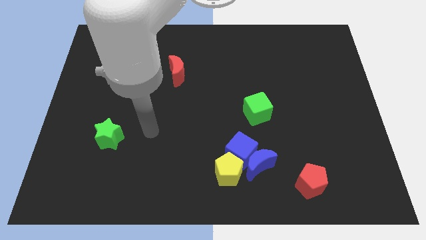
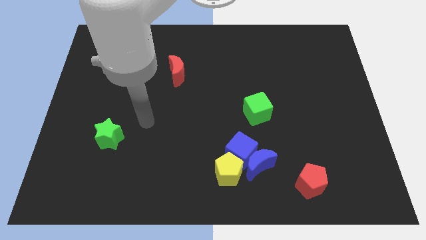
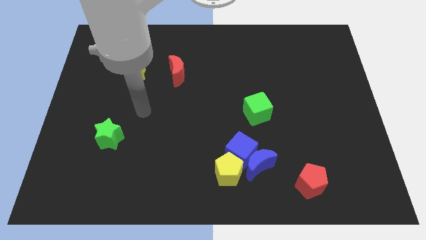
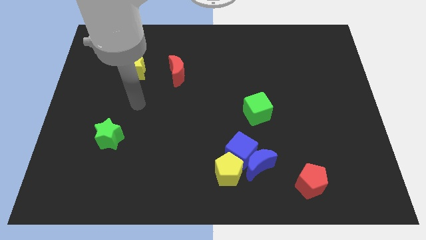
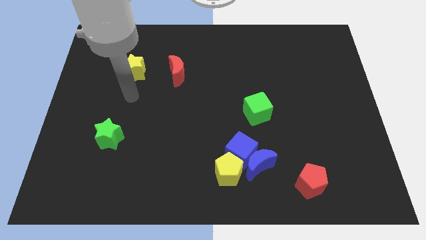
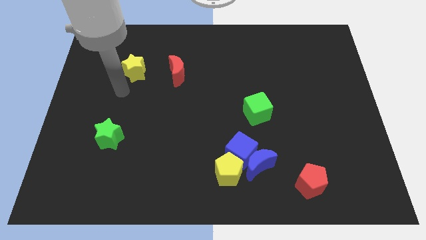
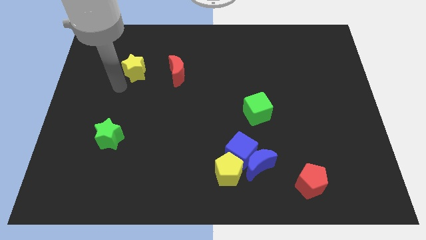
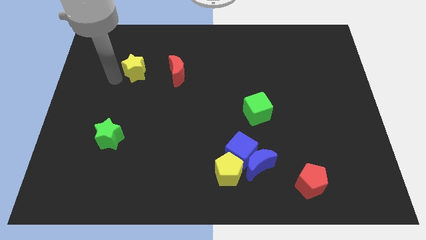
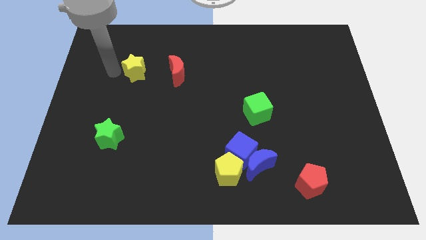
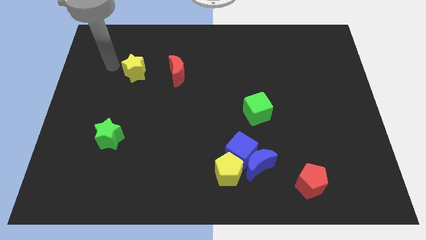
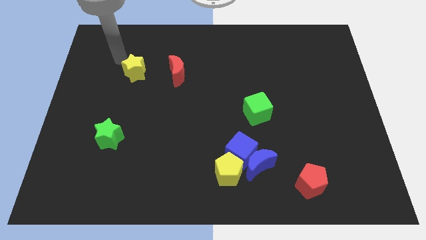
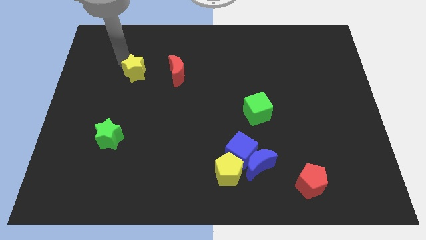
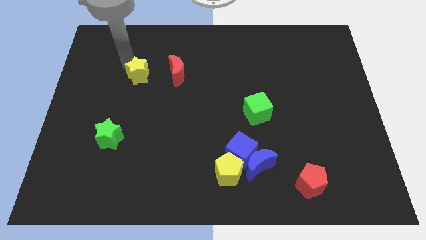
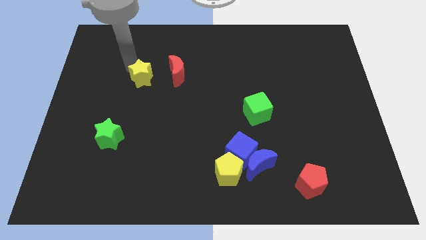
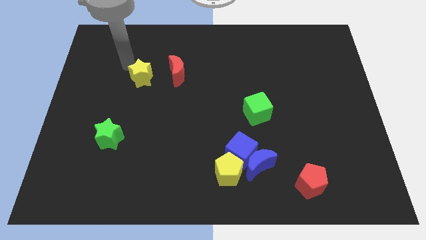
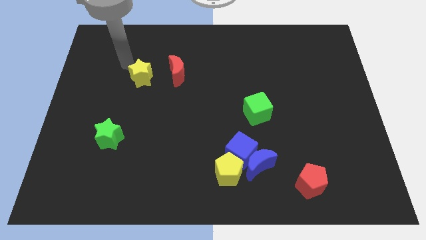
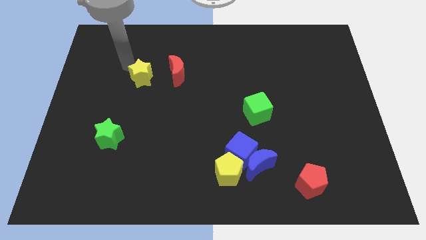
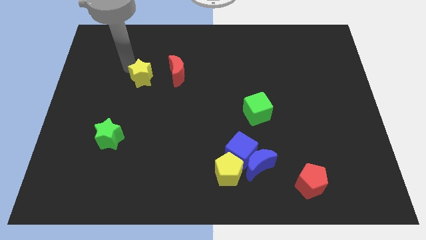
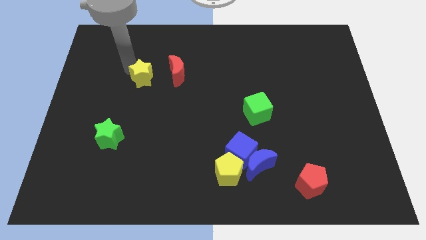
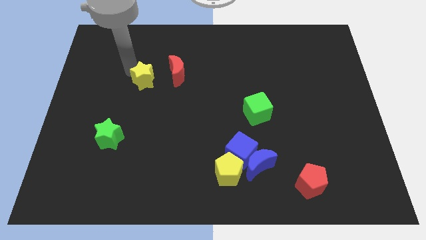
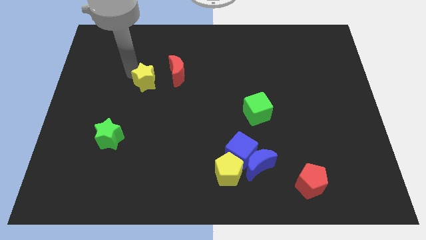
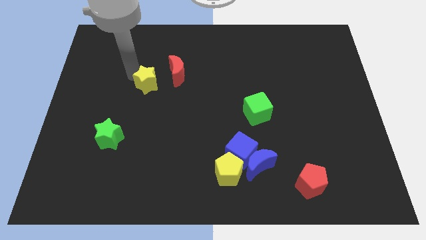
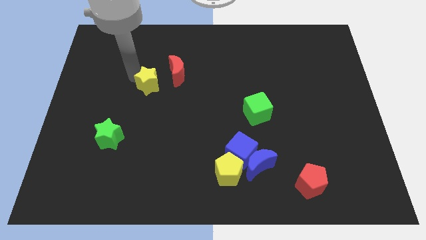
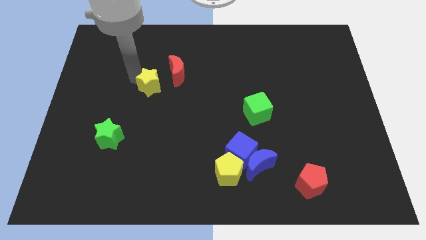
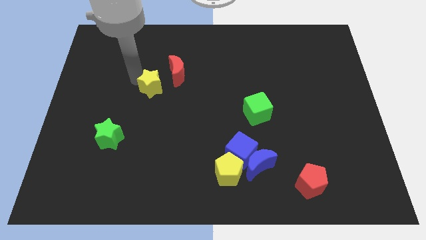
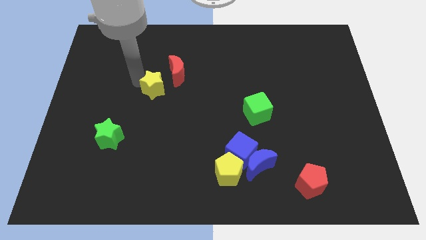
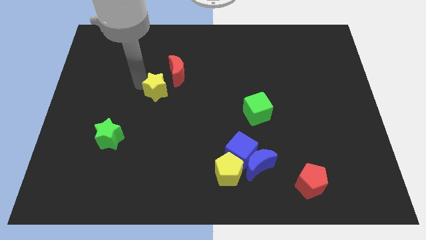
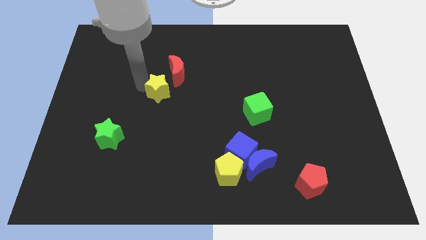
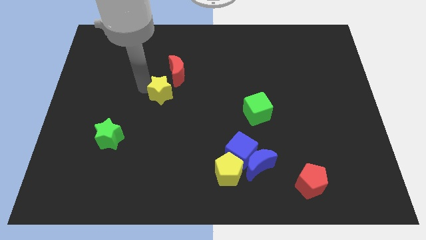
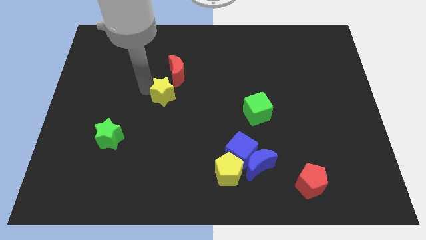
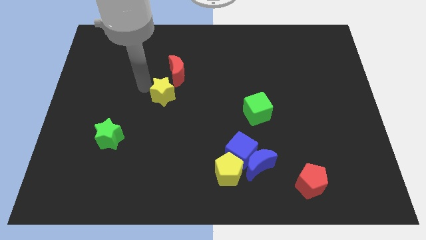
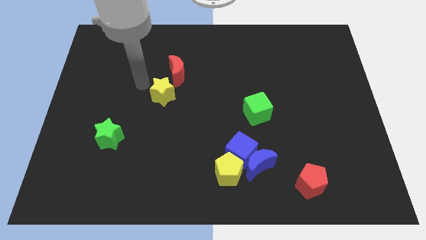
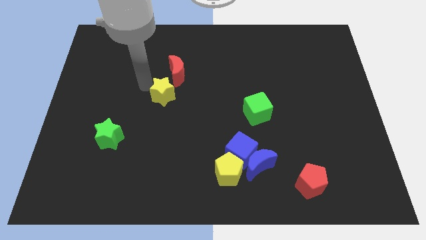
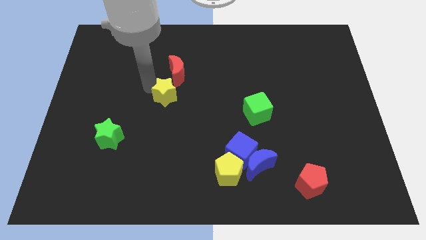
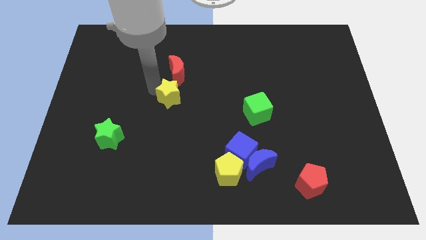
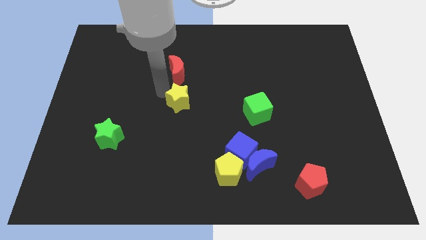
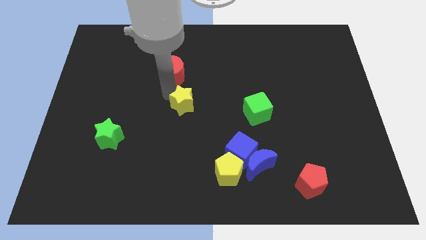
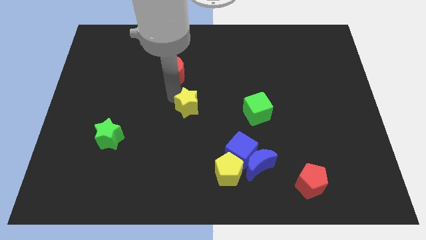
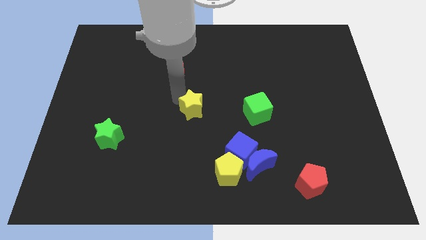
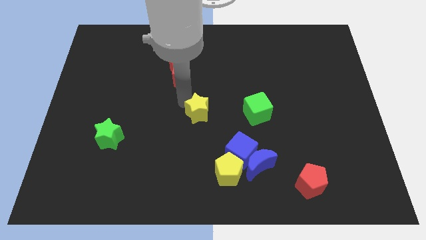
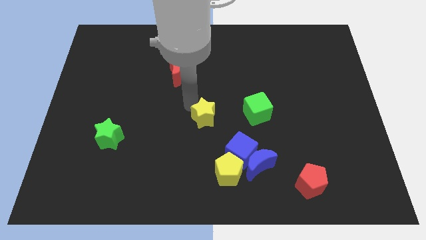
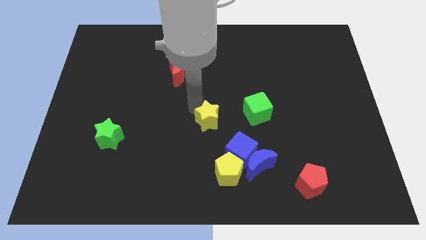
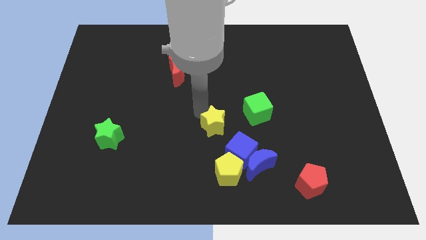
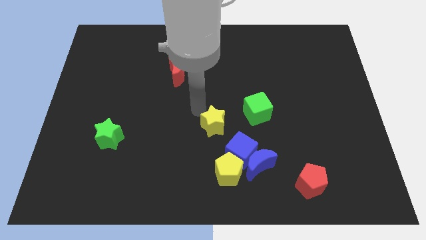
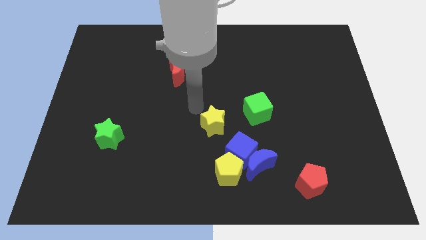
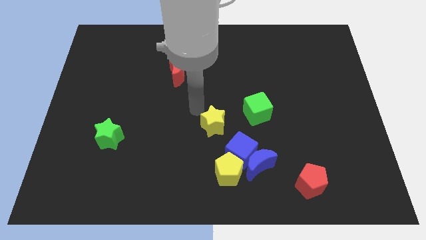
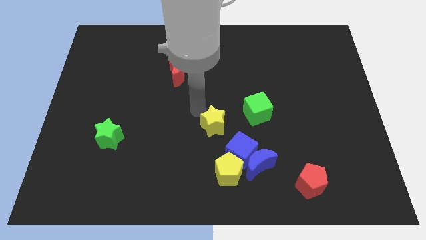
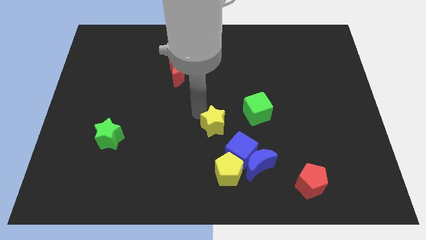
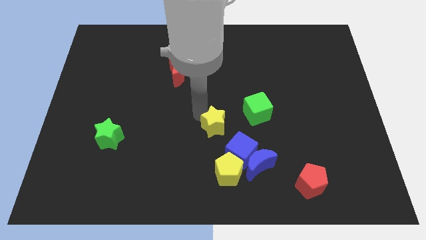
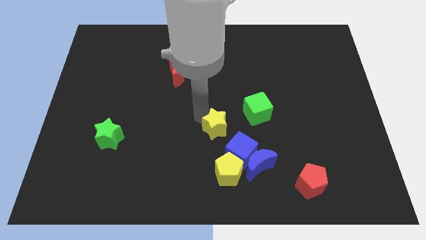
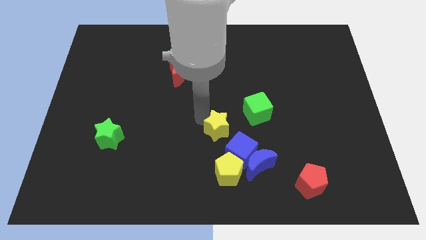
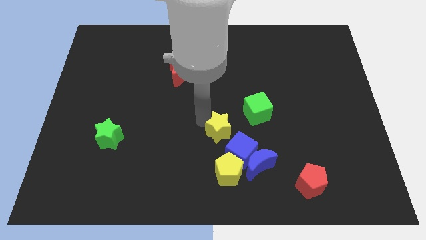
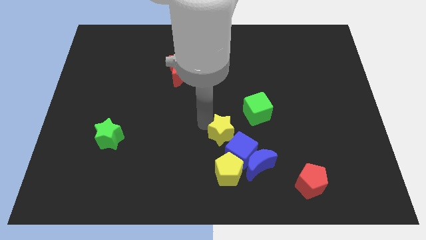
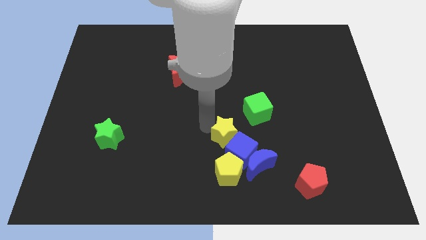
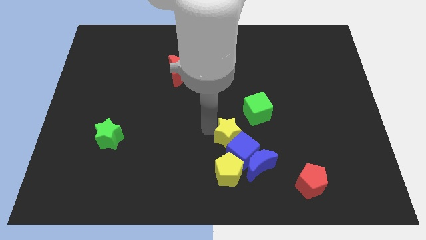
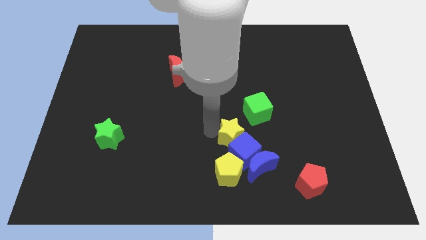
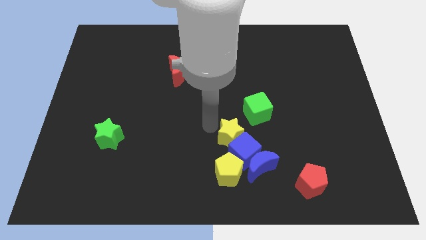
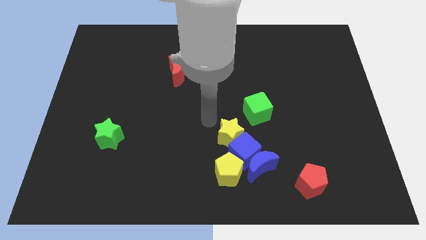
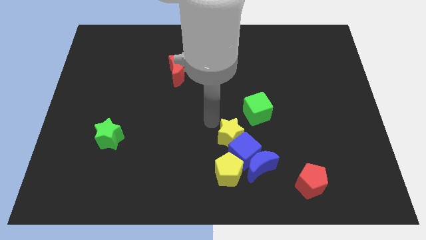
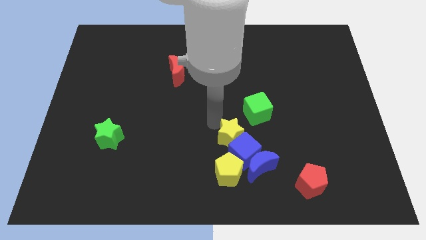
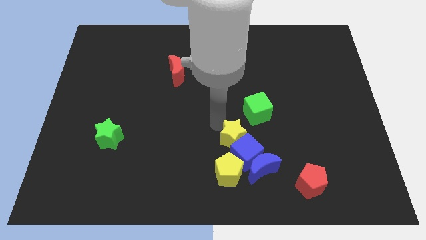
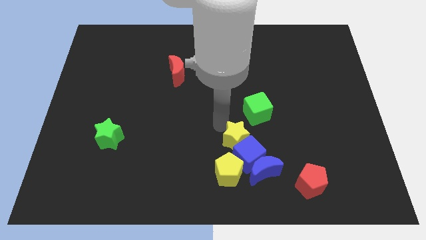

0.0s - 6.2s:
slide the yellow star to the top right side of the yellow pentagon

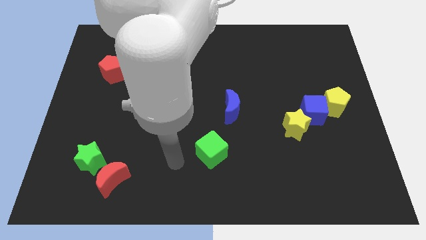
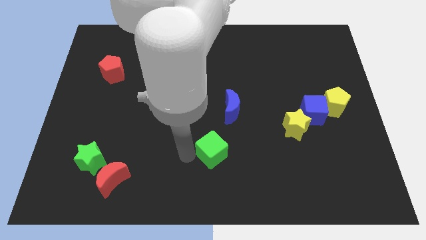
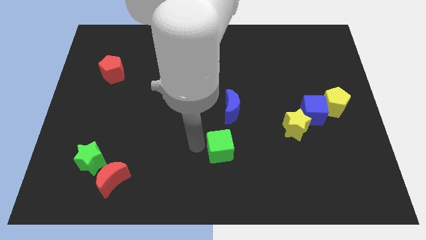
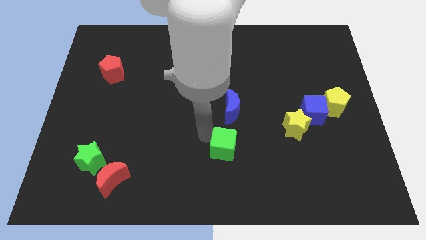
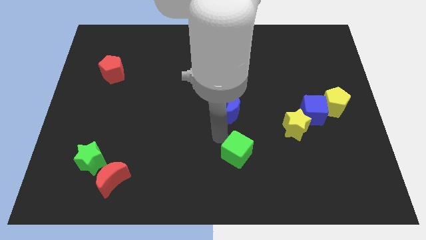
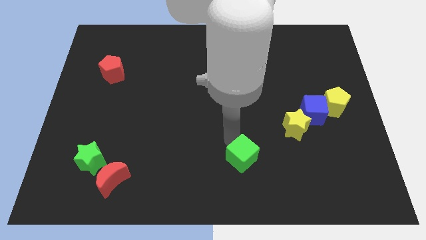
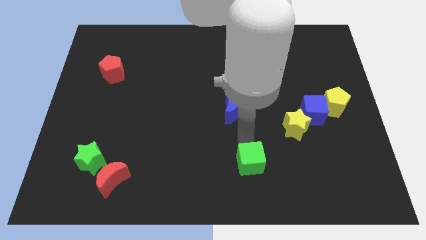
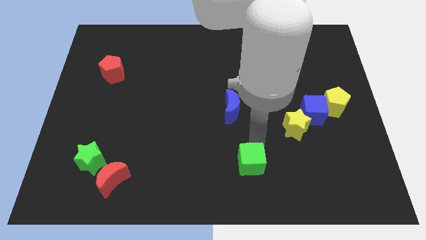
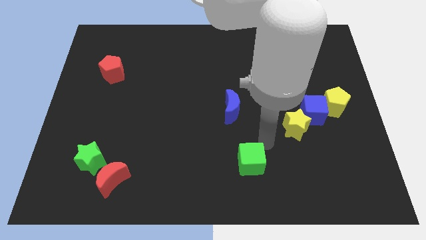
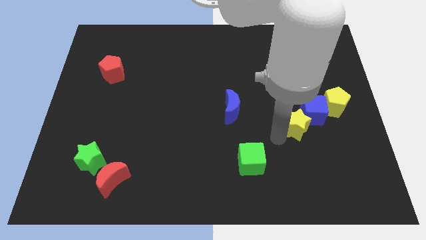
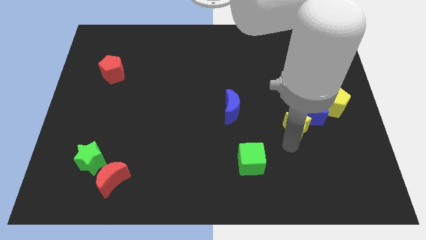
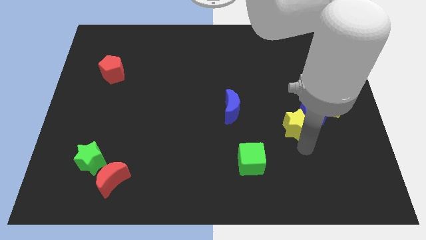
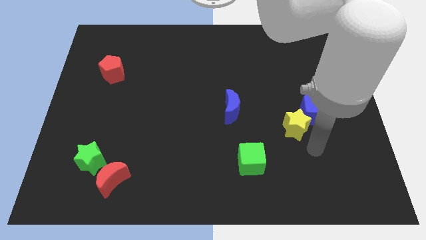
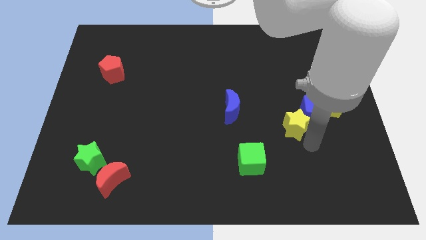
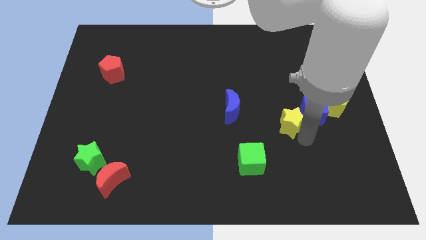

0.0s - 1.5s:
slide the yellow star to the right side of the blue moon

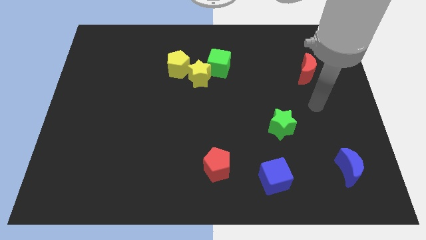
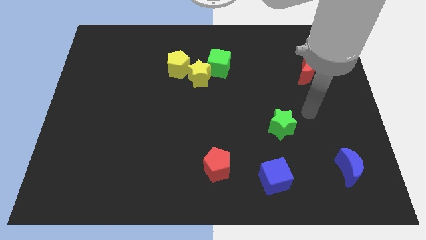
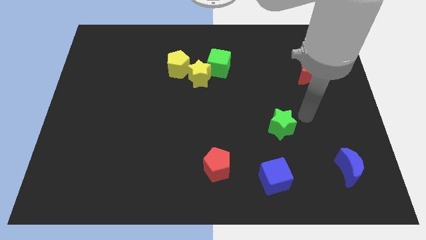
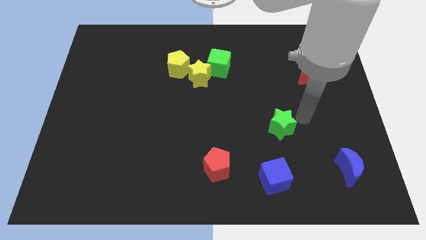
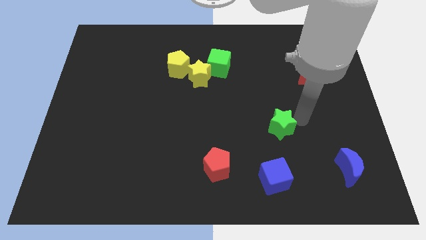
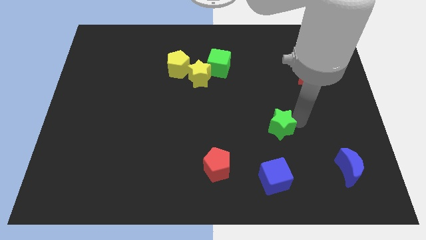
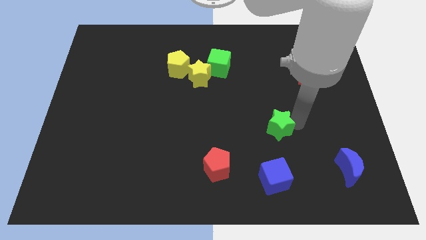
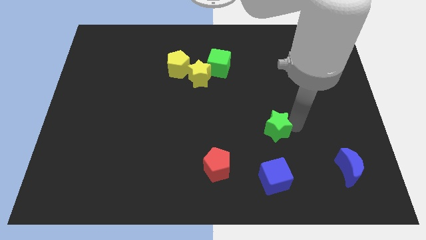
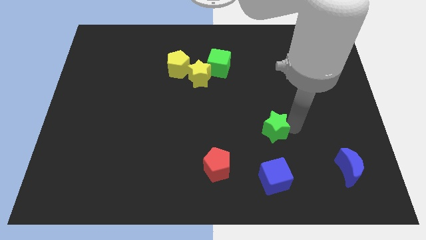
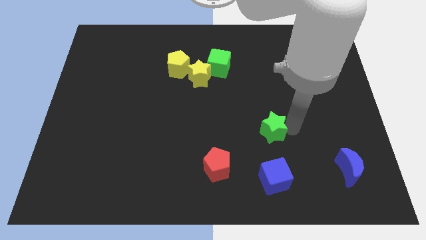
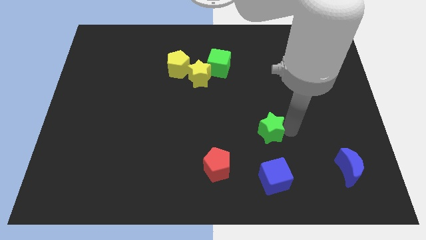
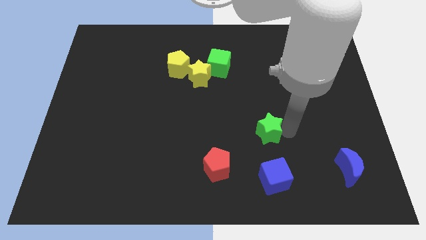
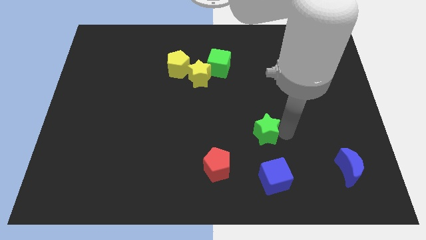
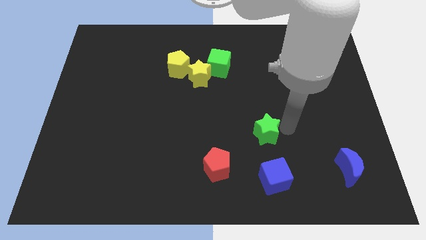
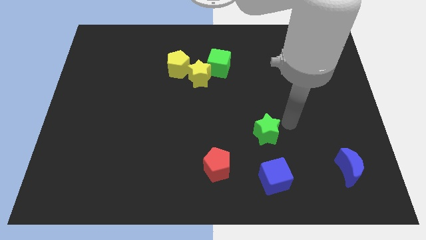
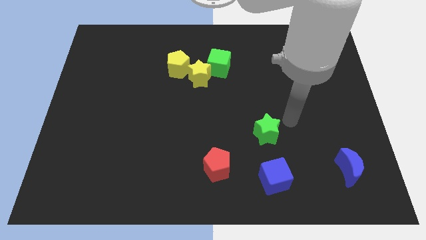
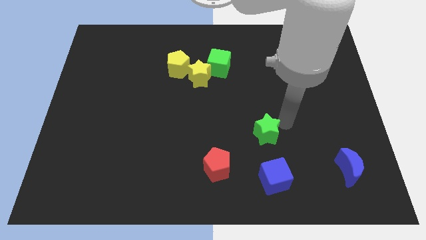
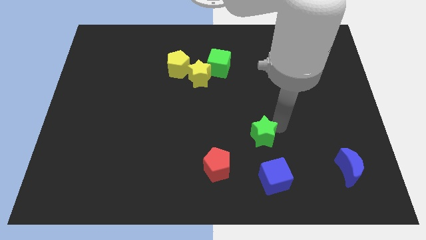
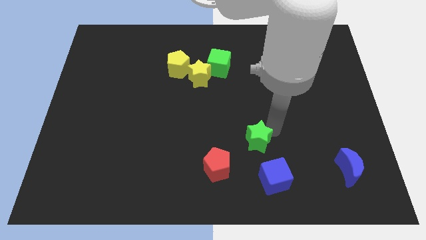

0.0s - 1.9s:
move the green star to the top right of the red pentagon
